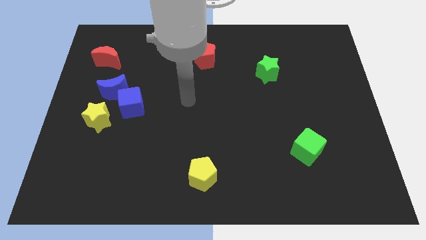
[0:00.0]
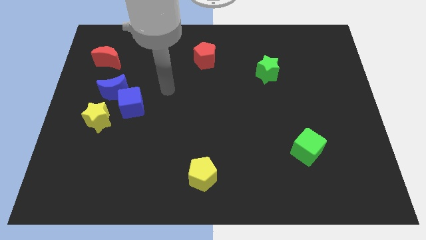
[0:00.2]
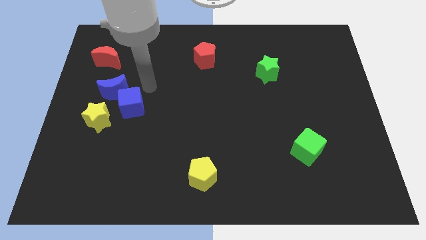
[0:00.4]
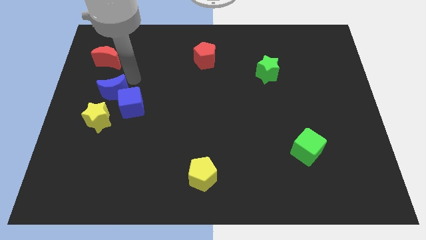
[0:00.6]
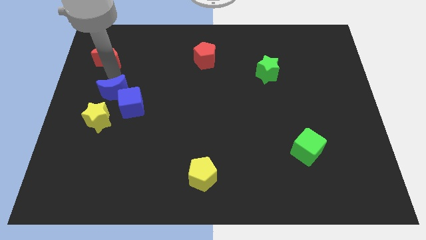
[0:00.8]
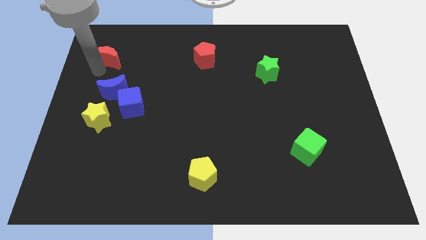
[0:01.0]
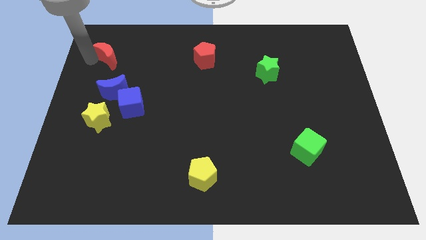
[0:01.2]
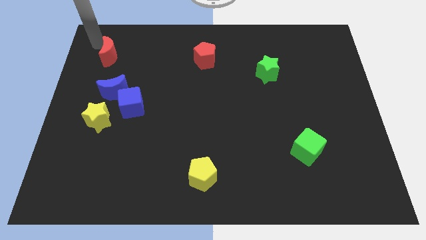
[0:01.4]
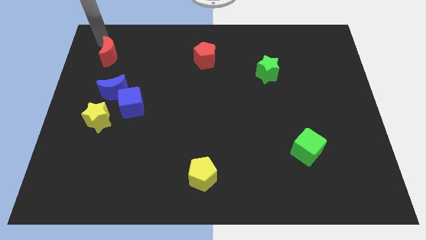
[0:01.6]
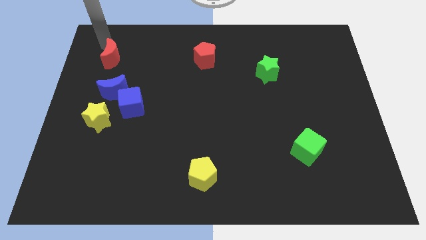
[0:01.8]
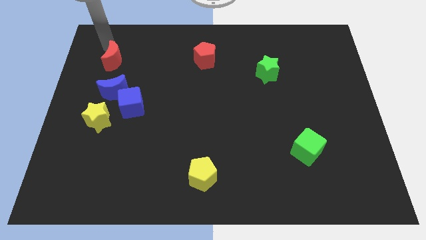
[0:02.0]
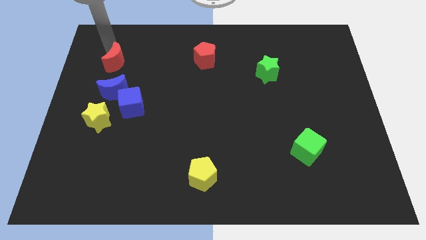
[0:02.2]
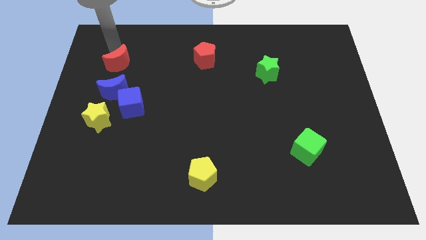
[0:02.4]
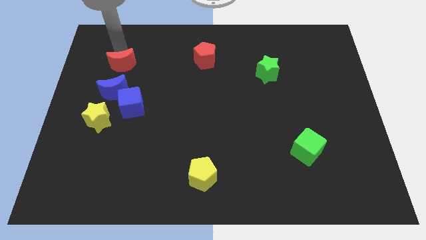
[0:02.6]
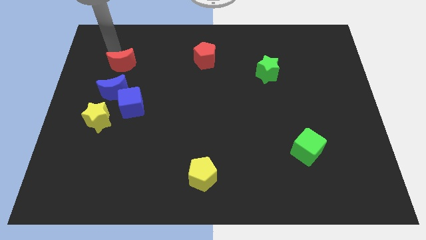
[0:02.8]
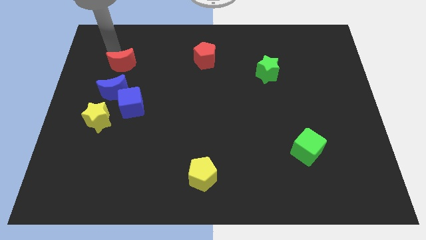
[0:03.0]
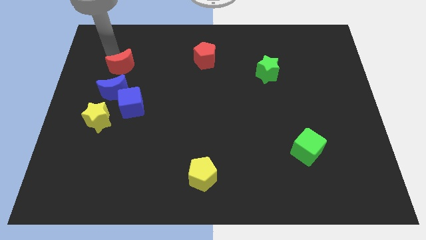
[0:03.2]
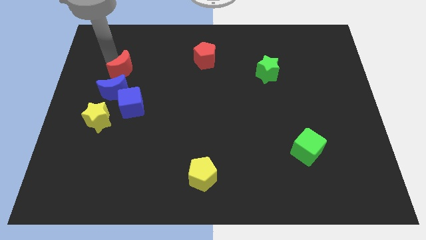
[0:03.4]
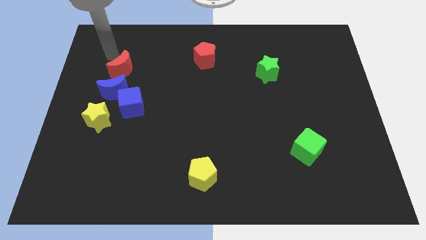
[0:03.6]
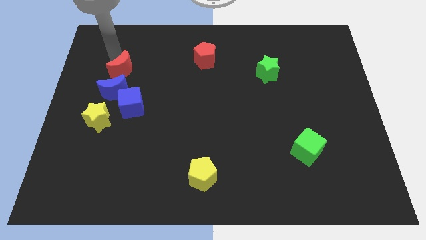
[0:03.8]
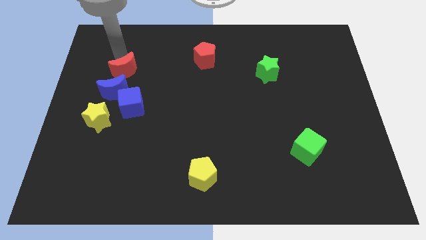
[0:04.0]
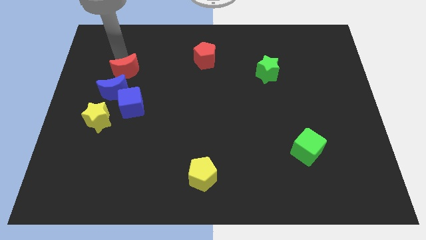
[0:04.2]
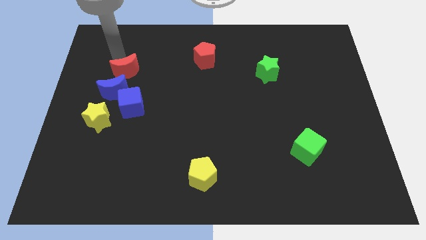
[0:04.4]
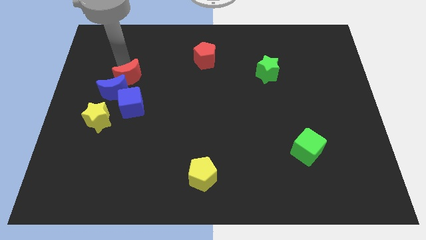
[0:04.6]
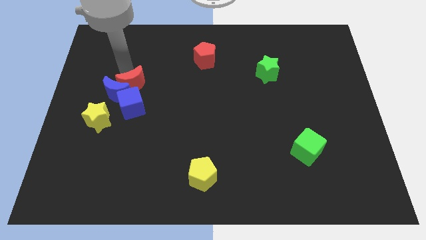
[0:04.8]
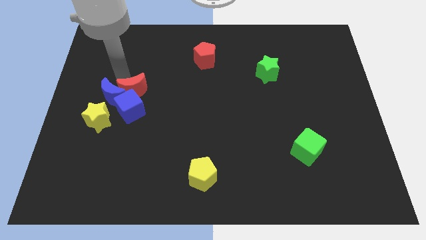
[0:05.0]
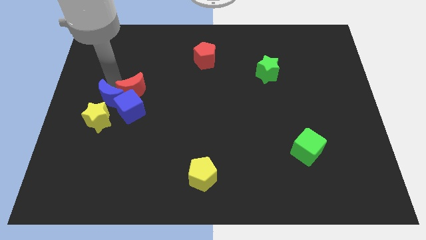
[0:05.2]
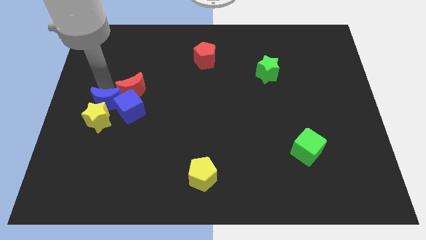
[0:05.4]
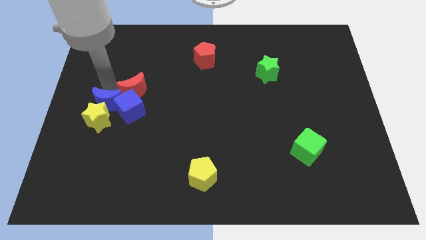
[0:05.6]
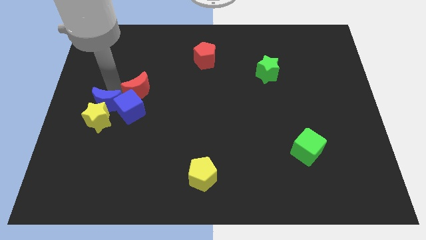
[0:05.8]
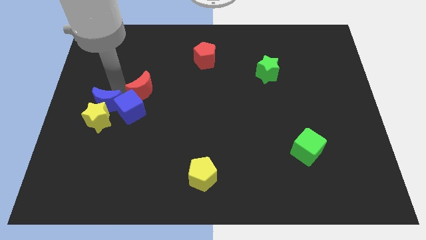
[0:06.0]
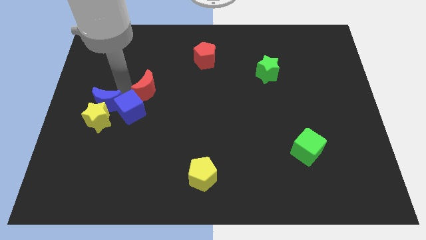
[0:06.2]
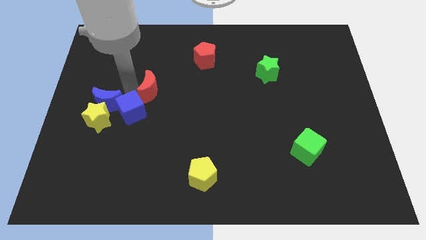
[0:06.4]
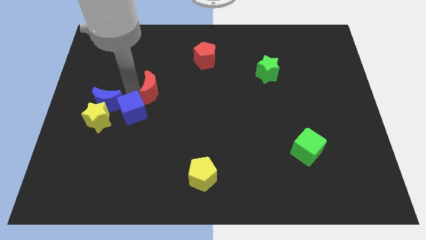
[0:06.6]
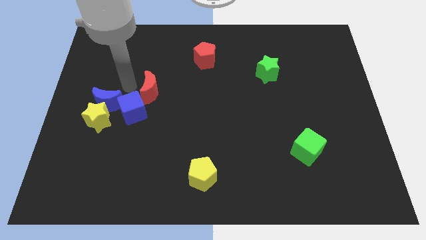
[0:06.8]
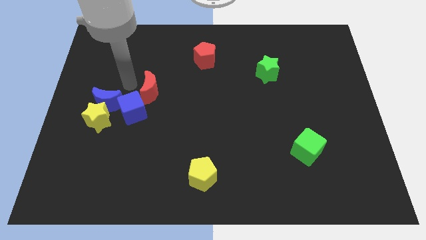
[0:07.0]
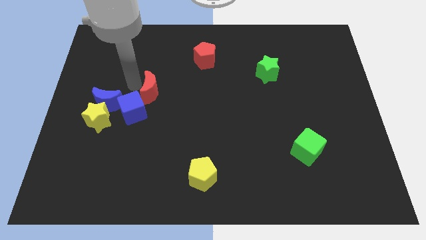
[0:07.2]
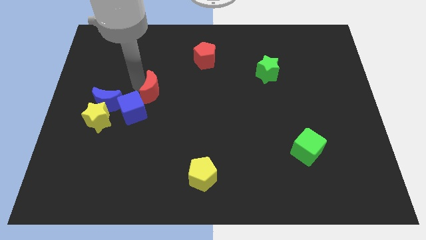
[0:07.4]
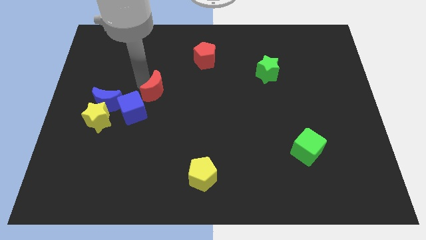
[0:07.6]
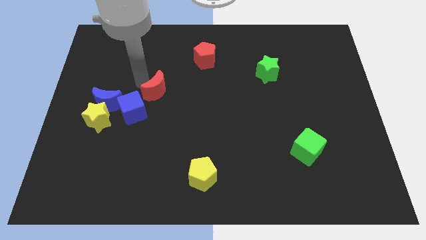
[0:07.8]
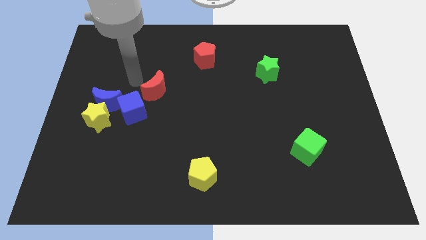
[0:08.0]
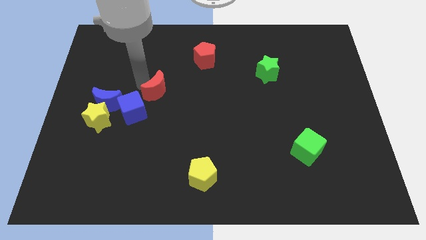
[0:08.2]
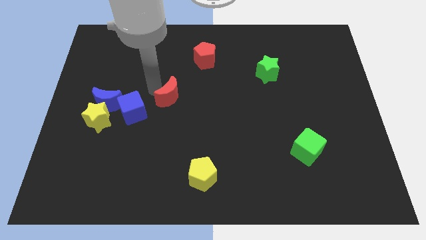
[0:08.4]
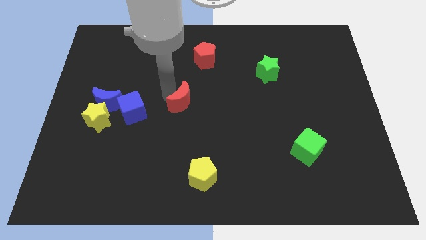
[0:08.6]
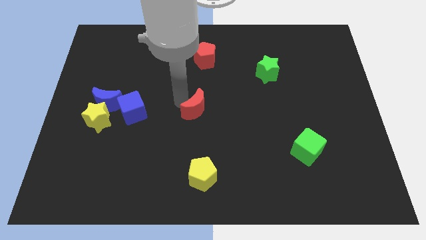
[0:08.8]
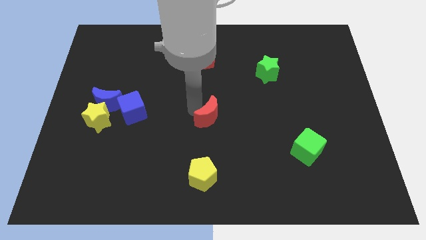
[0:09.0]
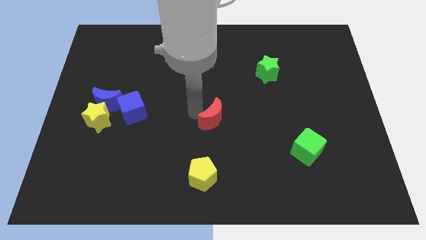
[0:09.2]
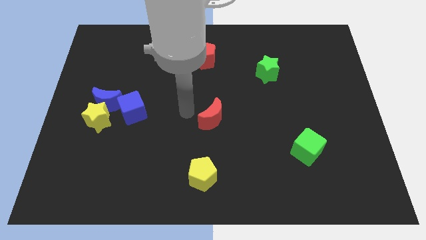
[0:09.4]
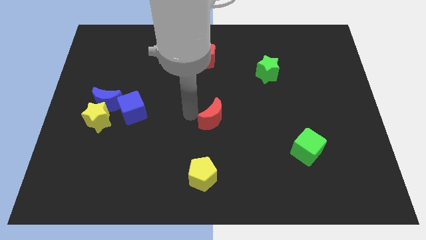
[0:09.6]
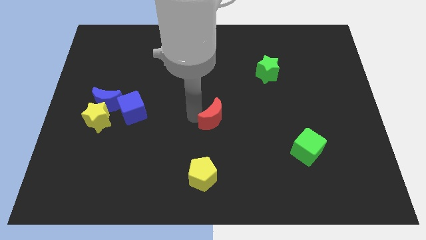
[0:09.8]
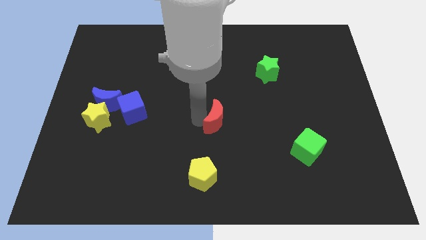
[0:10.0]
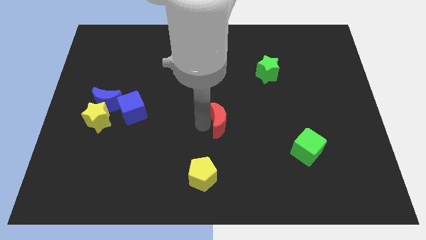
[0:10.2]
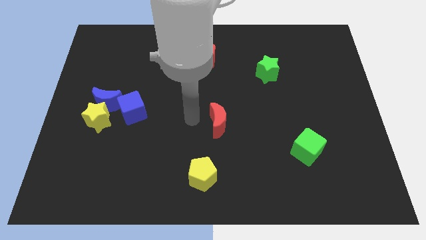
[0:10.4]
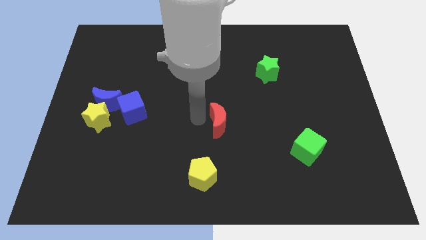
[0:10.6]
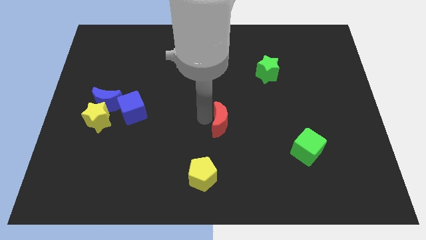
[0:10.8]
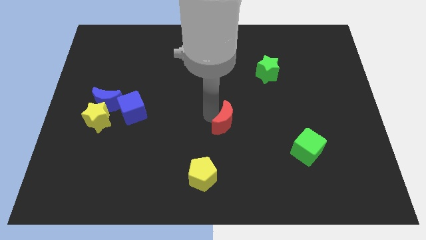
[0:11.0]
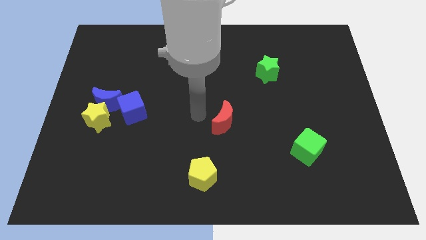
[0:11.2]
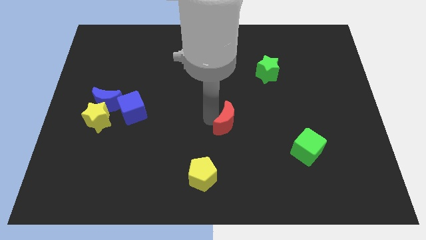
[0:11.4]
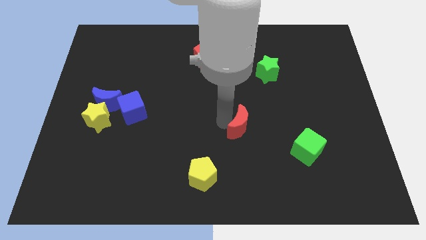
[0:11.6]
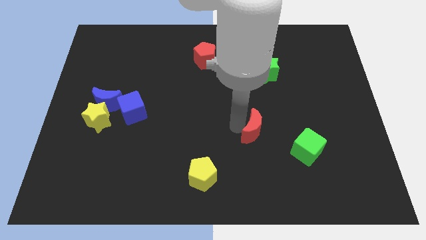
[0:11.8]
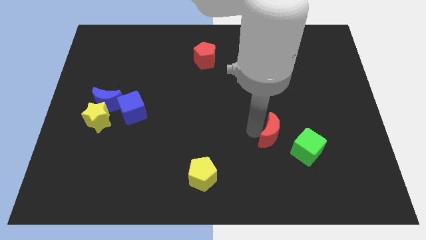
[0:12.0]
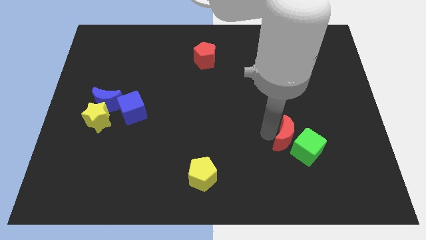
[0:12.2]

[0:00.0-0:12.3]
put the red moon next to the green cube
